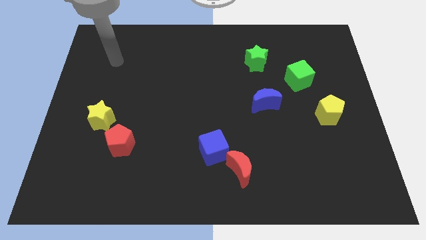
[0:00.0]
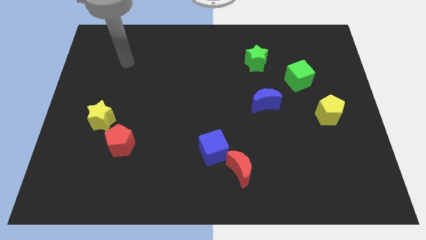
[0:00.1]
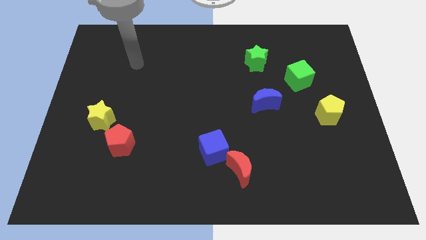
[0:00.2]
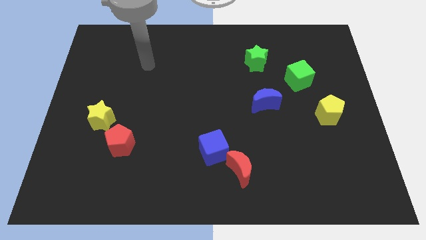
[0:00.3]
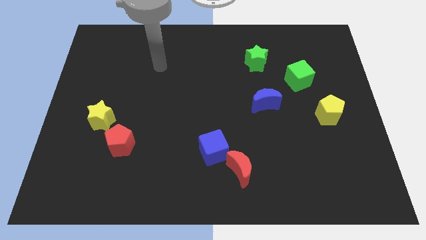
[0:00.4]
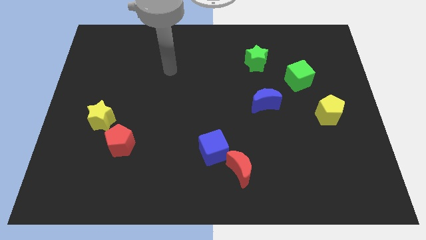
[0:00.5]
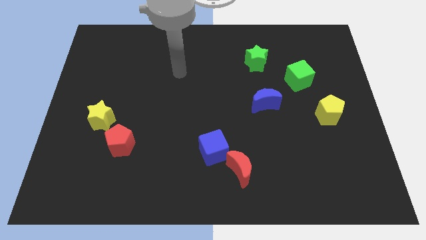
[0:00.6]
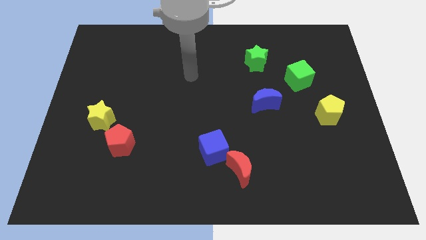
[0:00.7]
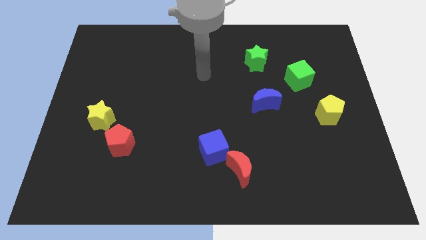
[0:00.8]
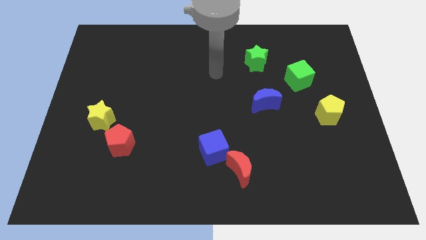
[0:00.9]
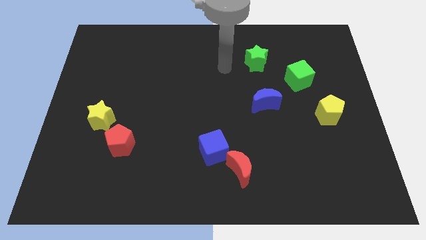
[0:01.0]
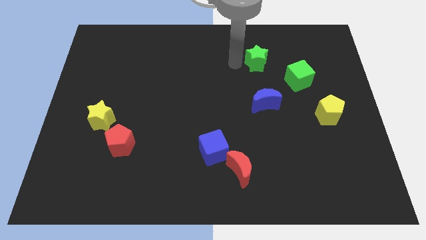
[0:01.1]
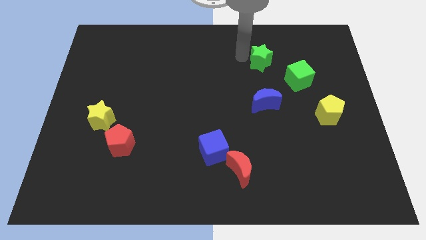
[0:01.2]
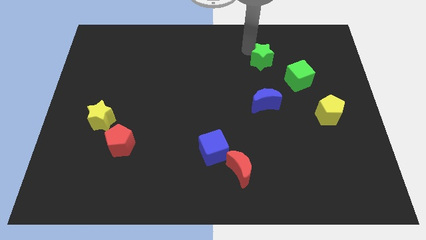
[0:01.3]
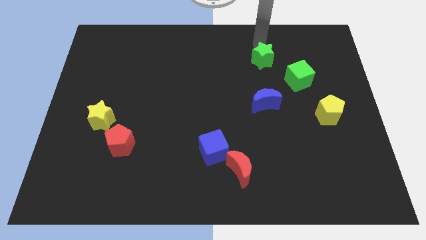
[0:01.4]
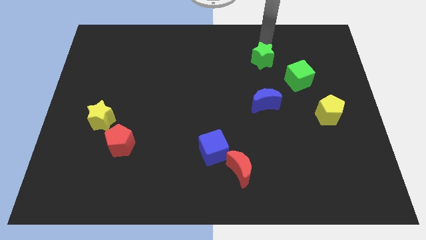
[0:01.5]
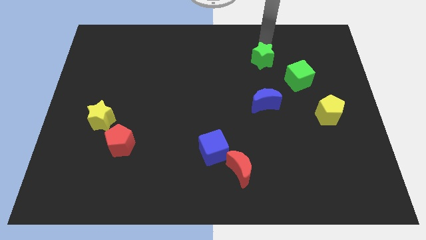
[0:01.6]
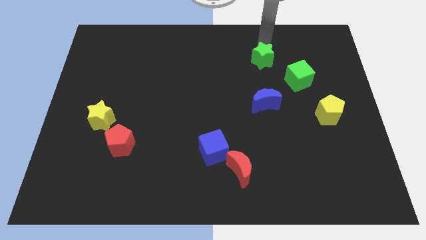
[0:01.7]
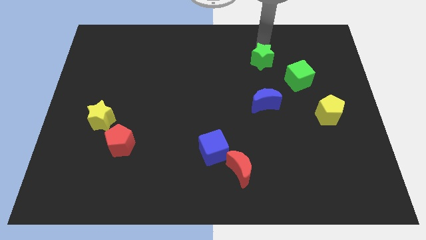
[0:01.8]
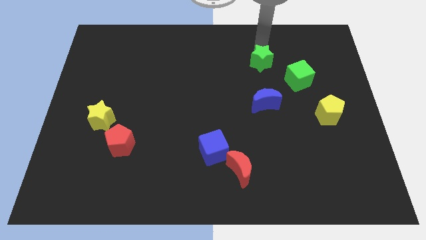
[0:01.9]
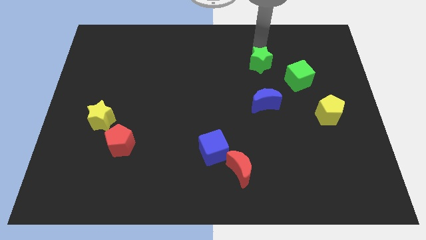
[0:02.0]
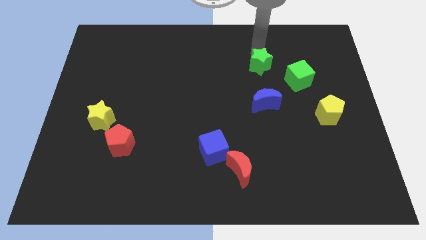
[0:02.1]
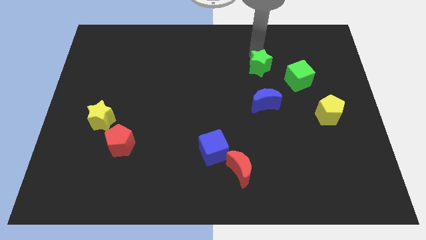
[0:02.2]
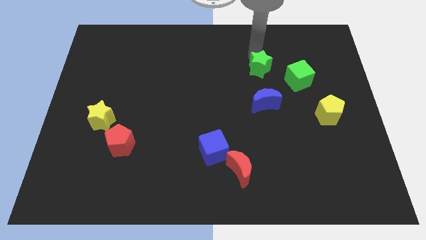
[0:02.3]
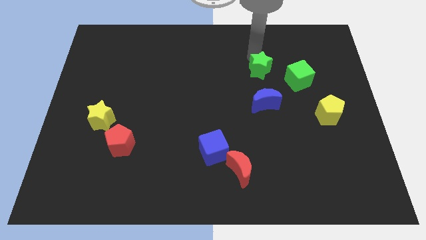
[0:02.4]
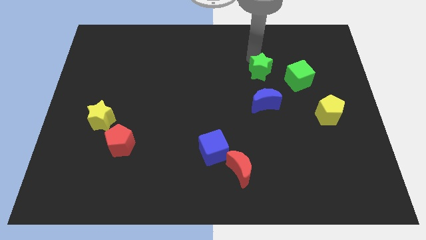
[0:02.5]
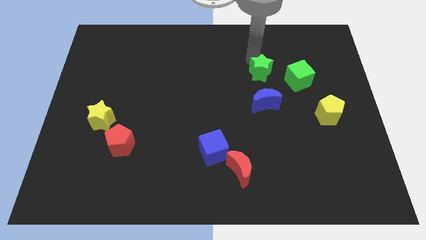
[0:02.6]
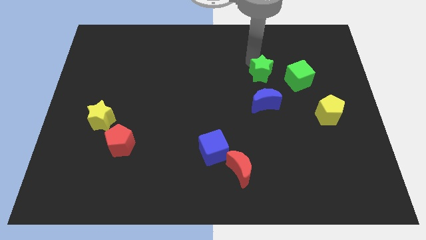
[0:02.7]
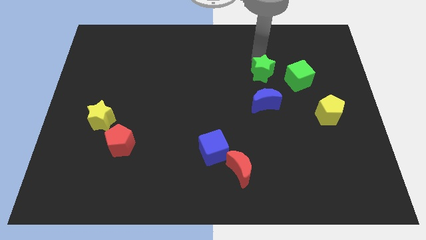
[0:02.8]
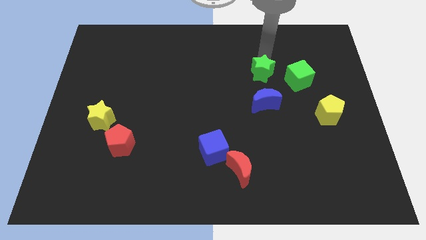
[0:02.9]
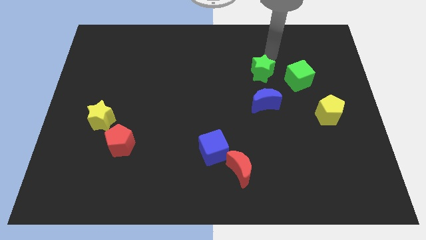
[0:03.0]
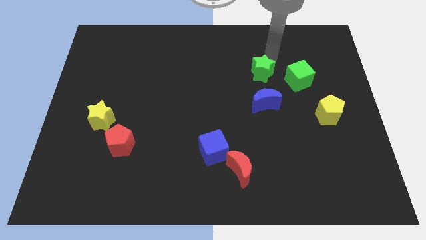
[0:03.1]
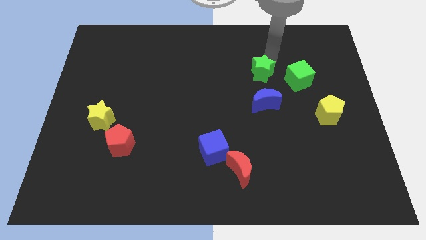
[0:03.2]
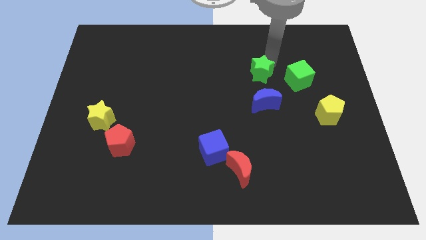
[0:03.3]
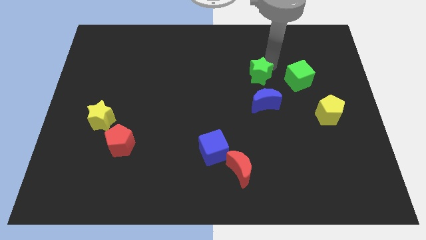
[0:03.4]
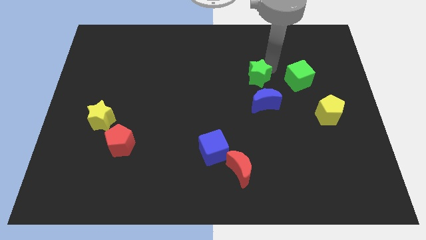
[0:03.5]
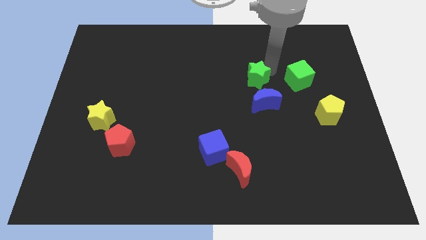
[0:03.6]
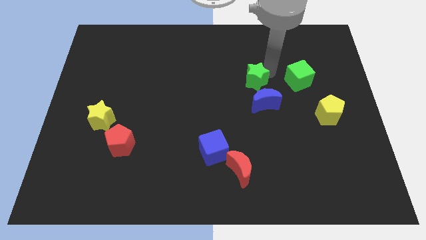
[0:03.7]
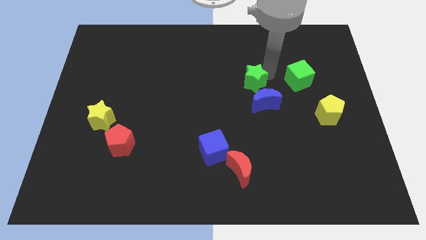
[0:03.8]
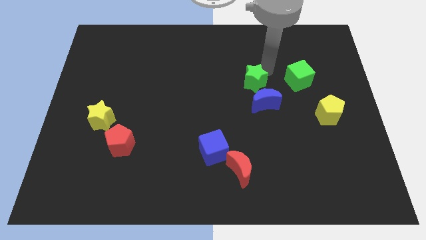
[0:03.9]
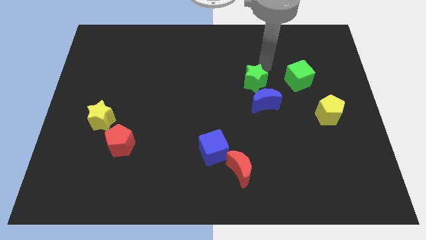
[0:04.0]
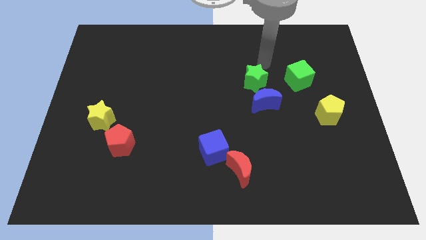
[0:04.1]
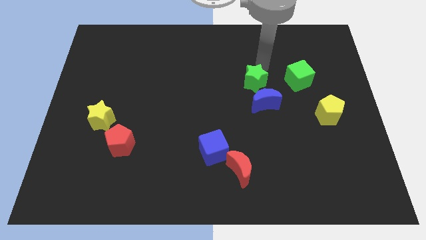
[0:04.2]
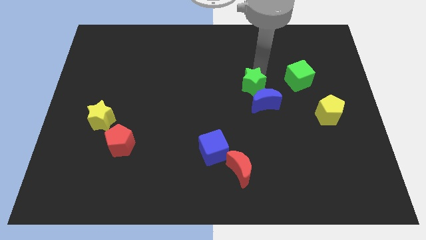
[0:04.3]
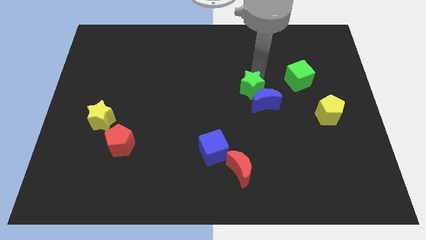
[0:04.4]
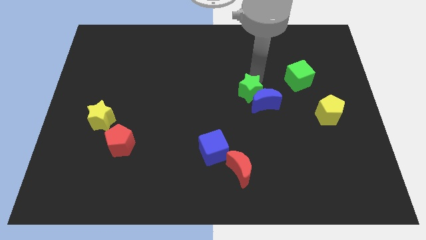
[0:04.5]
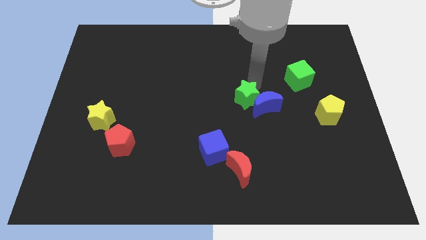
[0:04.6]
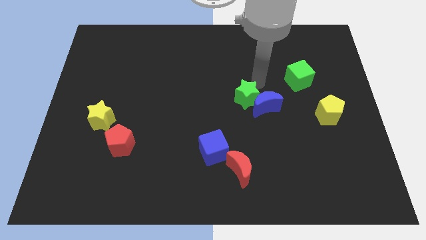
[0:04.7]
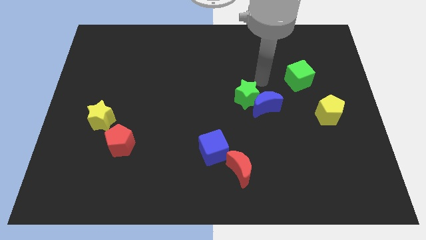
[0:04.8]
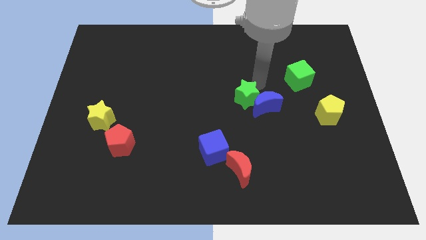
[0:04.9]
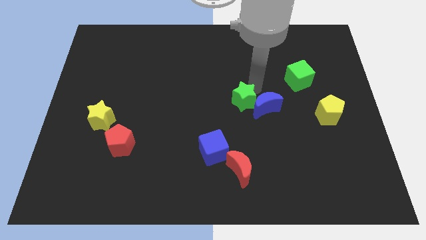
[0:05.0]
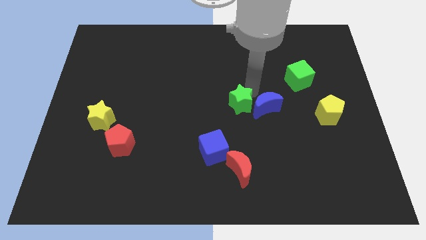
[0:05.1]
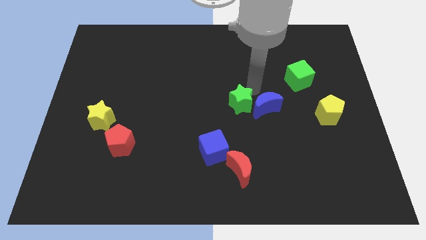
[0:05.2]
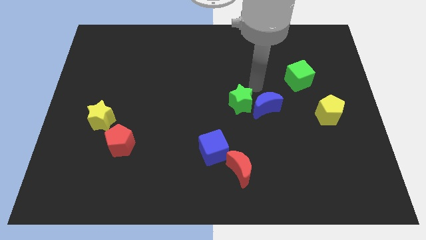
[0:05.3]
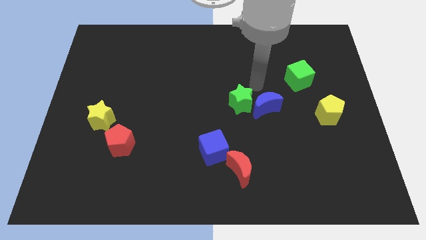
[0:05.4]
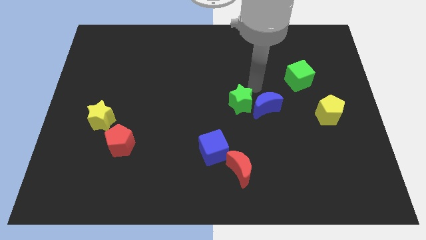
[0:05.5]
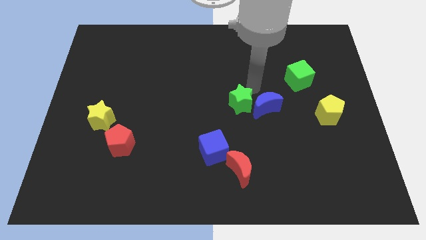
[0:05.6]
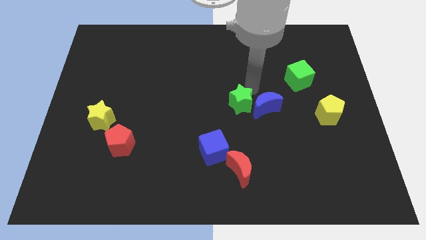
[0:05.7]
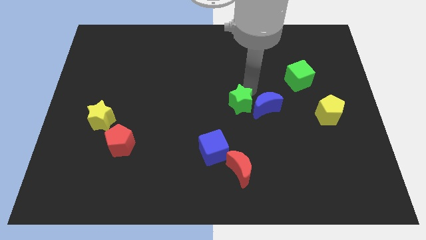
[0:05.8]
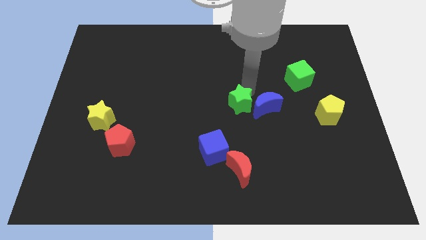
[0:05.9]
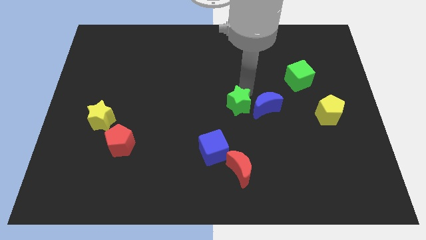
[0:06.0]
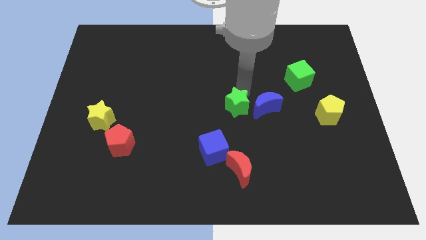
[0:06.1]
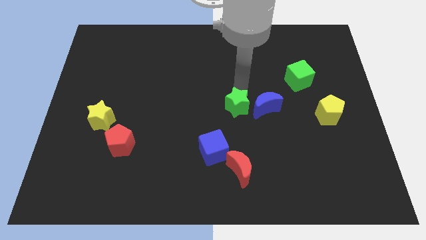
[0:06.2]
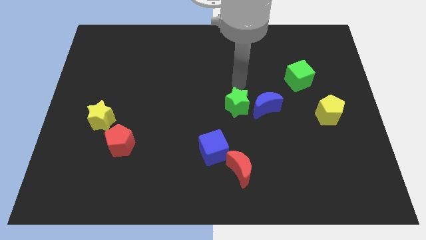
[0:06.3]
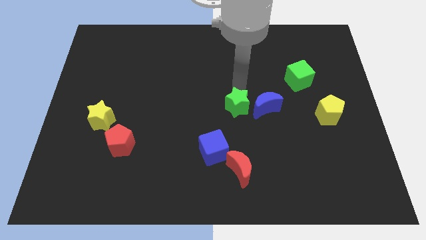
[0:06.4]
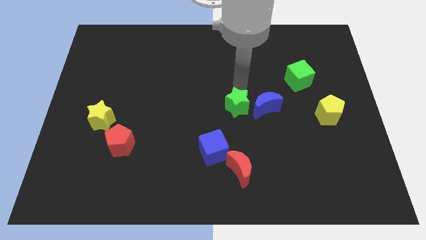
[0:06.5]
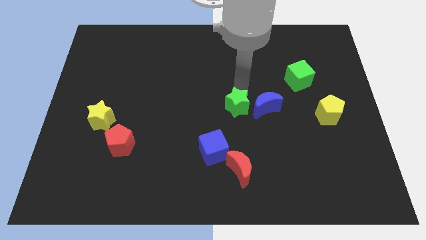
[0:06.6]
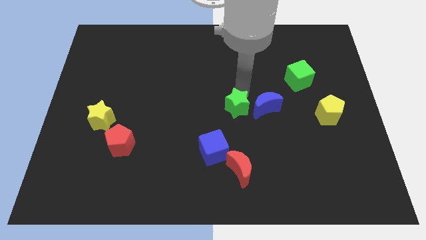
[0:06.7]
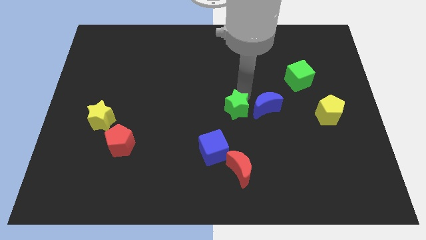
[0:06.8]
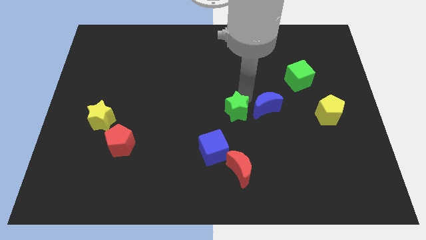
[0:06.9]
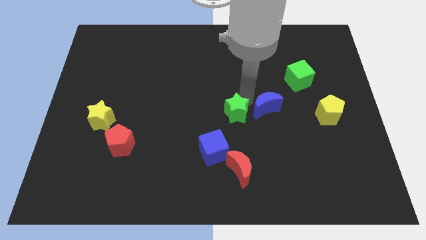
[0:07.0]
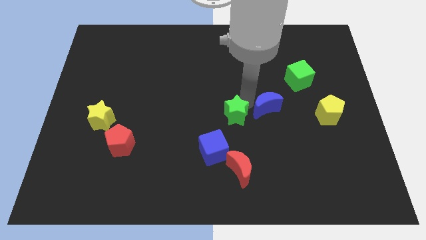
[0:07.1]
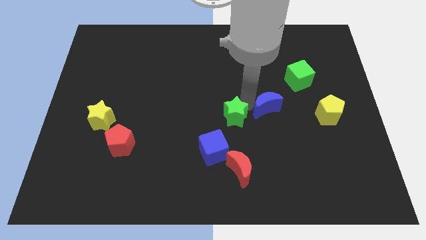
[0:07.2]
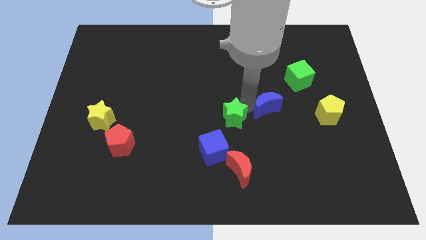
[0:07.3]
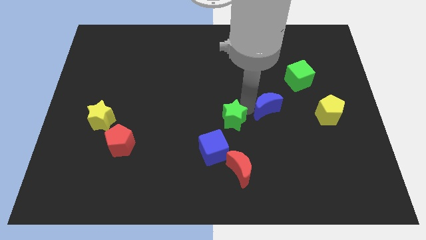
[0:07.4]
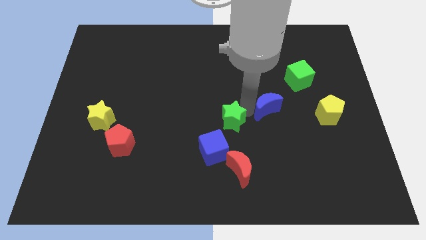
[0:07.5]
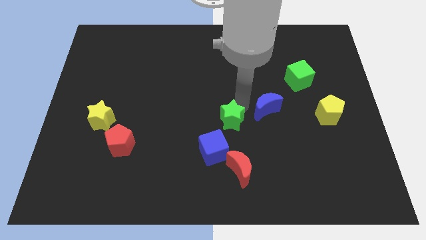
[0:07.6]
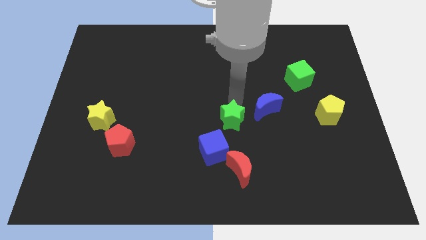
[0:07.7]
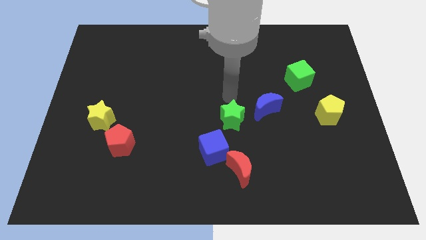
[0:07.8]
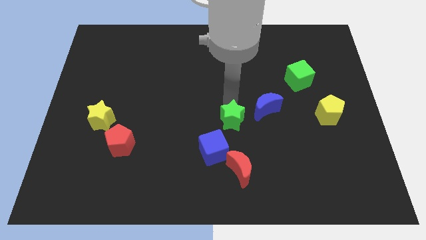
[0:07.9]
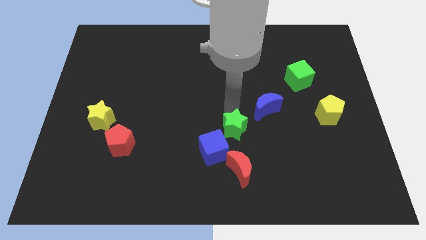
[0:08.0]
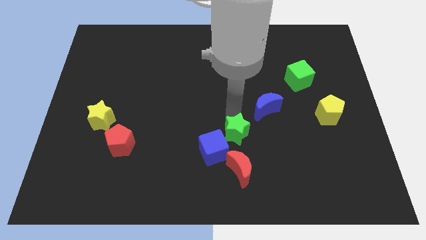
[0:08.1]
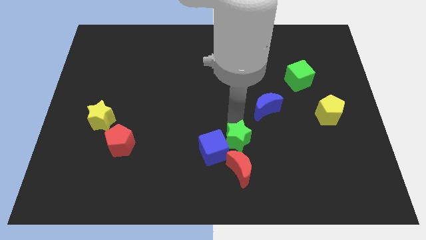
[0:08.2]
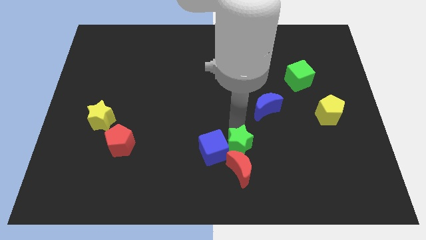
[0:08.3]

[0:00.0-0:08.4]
push the green star next to the red moon
